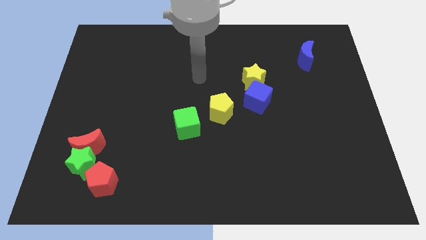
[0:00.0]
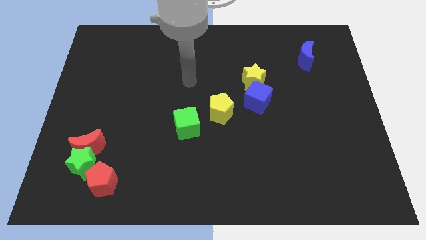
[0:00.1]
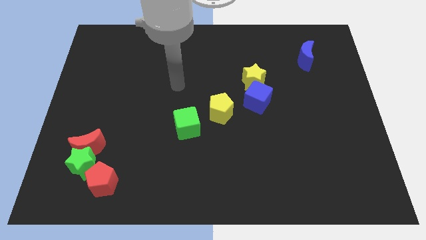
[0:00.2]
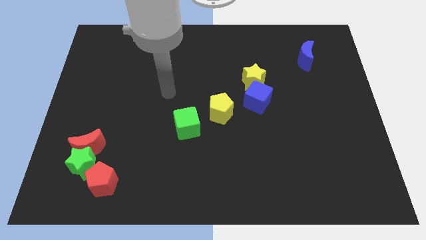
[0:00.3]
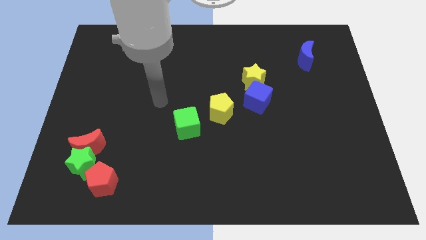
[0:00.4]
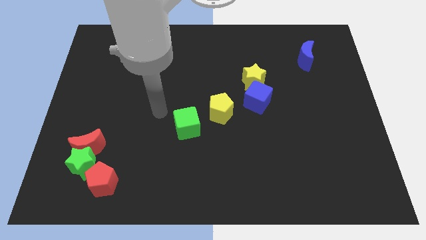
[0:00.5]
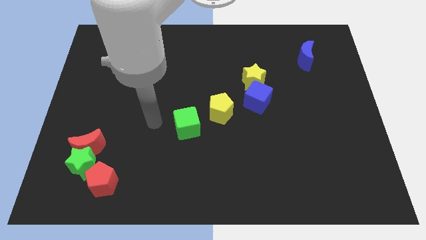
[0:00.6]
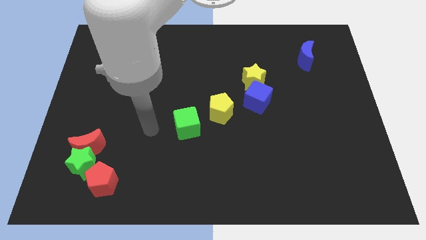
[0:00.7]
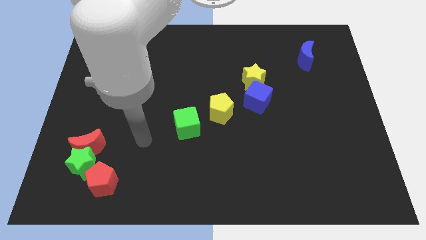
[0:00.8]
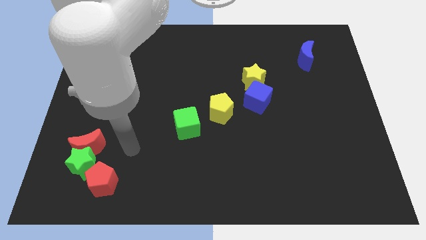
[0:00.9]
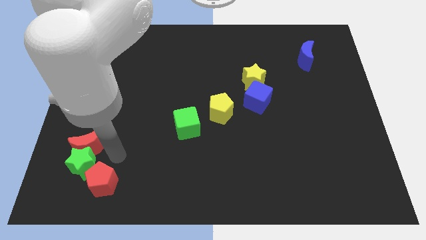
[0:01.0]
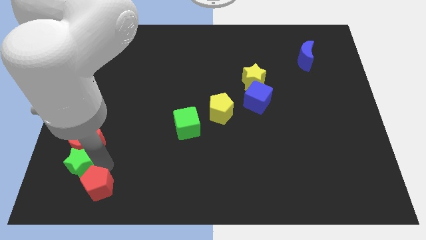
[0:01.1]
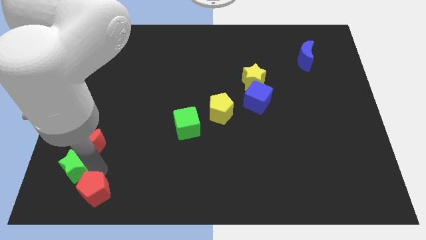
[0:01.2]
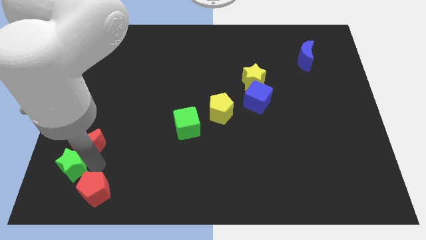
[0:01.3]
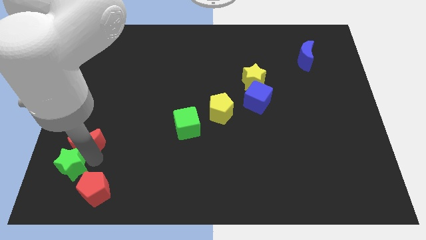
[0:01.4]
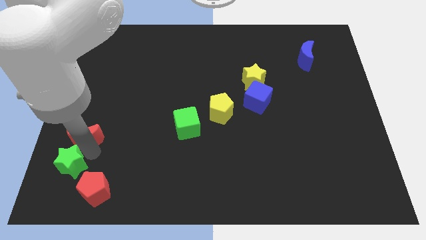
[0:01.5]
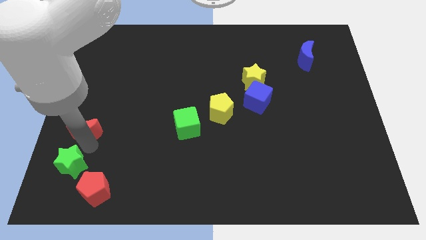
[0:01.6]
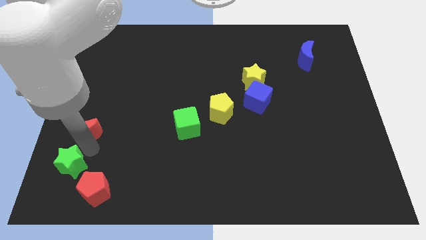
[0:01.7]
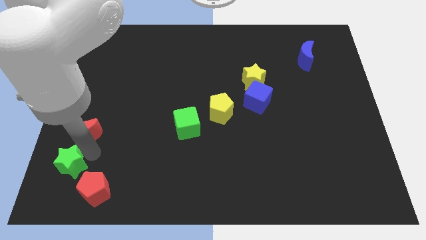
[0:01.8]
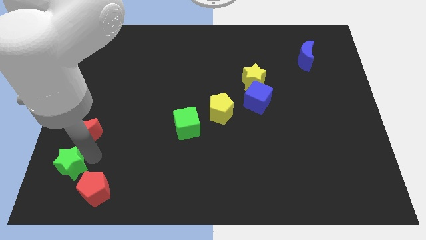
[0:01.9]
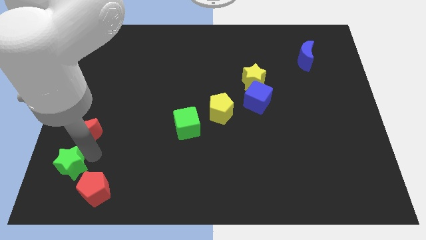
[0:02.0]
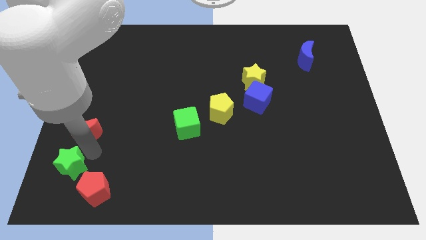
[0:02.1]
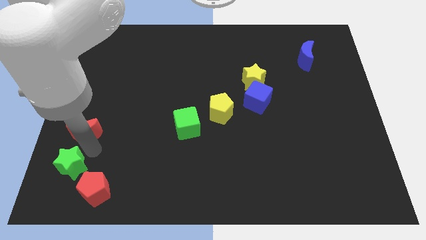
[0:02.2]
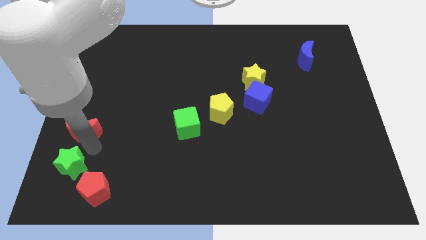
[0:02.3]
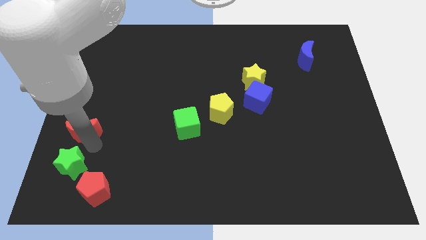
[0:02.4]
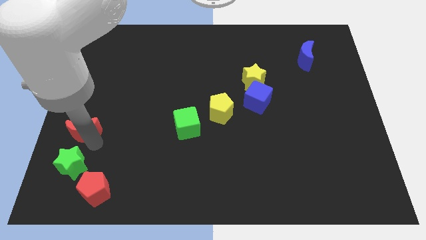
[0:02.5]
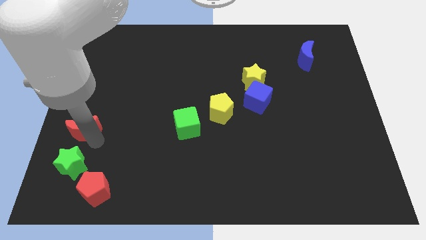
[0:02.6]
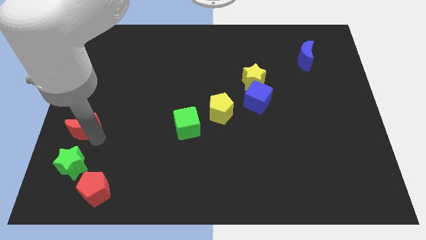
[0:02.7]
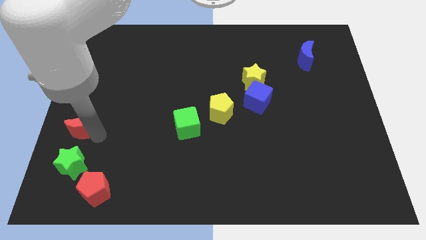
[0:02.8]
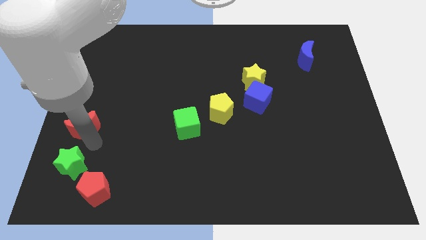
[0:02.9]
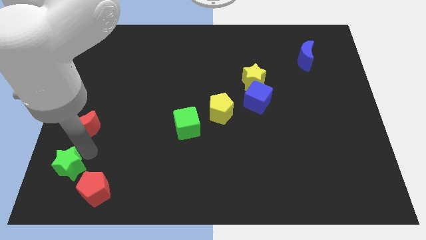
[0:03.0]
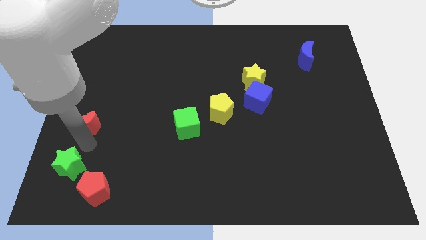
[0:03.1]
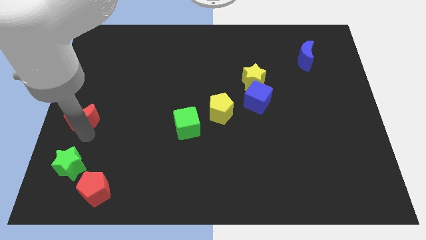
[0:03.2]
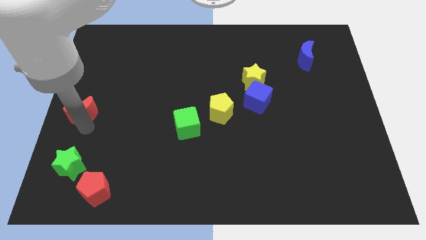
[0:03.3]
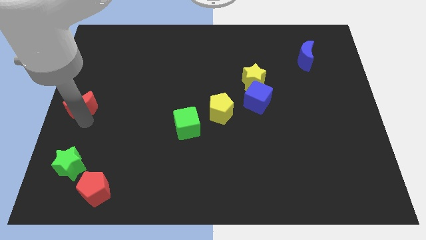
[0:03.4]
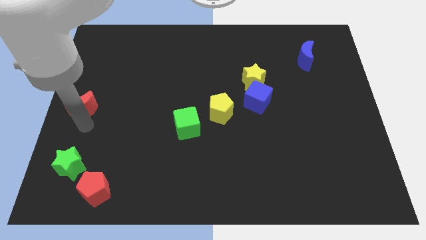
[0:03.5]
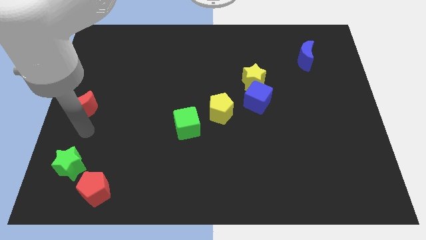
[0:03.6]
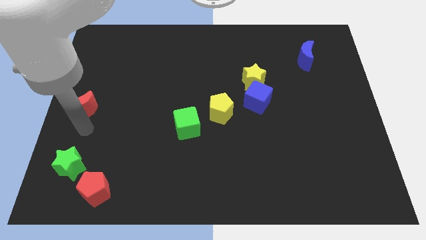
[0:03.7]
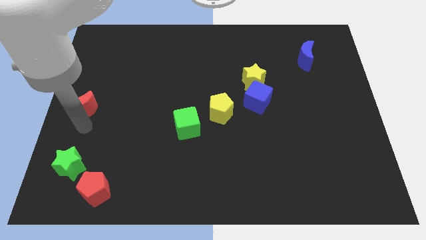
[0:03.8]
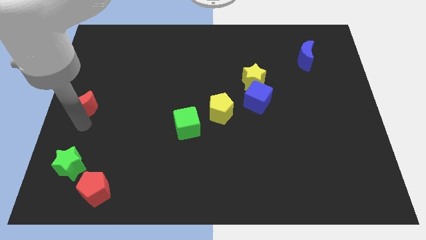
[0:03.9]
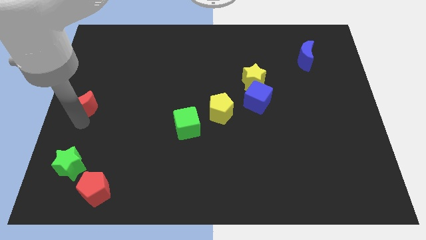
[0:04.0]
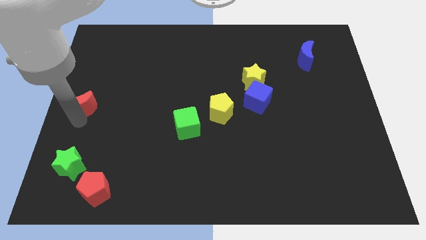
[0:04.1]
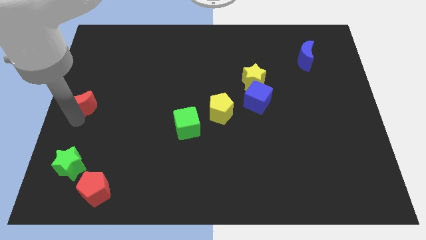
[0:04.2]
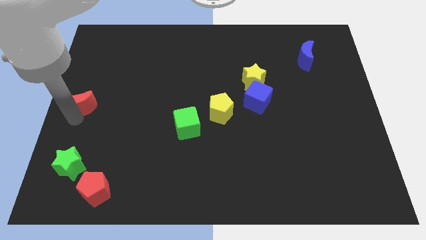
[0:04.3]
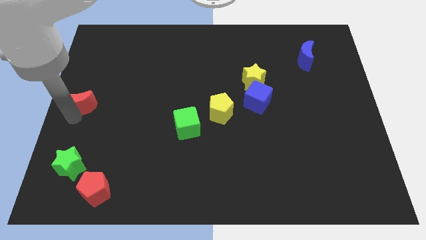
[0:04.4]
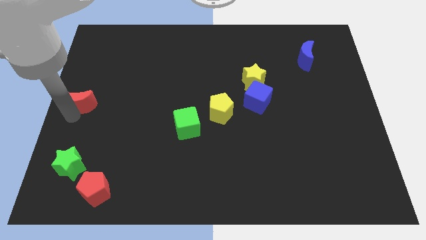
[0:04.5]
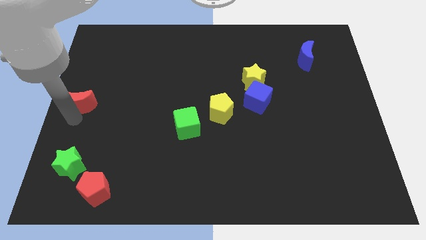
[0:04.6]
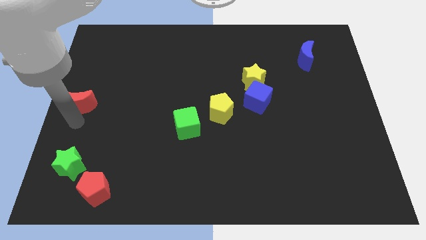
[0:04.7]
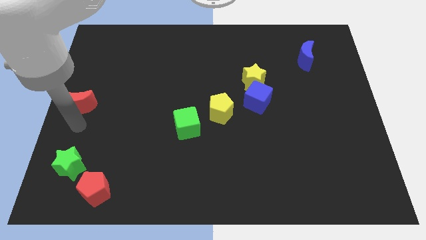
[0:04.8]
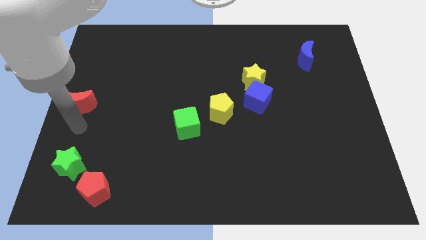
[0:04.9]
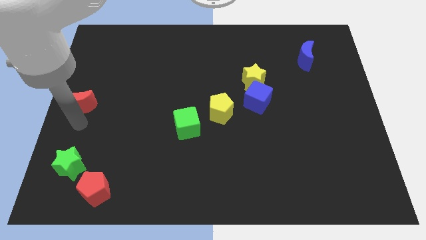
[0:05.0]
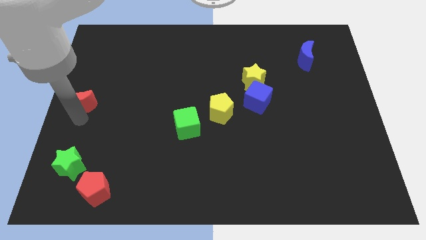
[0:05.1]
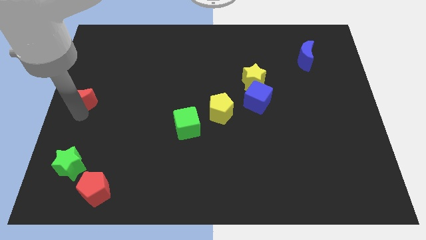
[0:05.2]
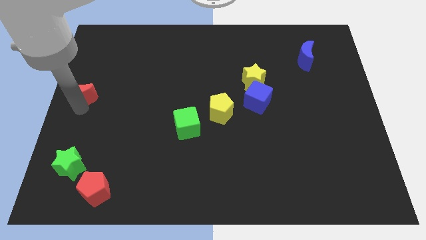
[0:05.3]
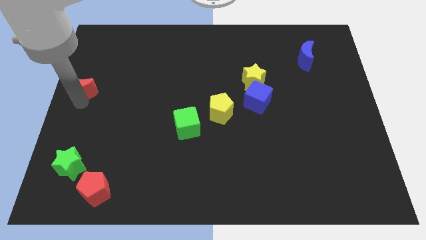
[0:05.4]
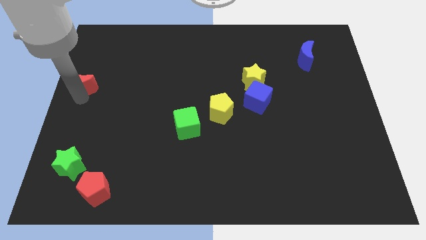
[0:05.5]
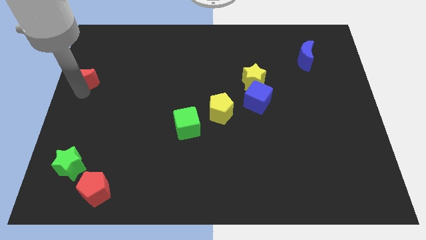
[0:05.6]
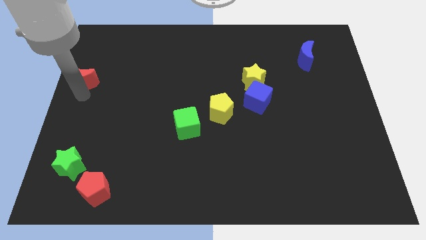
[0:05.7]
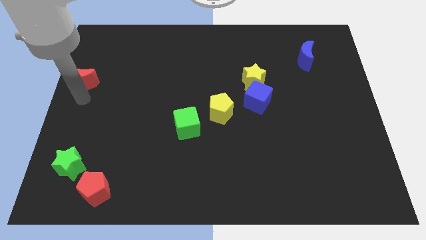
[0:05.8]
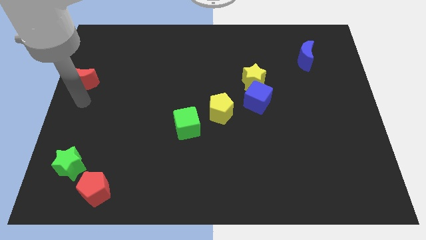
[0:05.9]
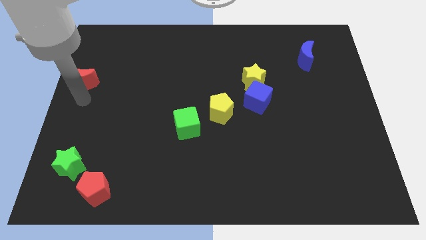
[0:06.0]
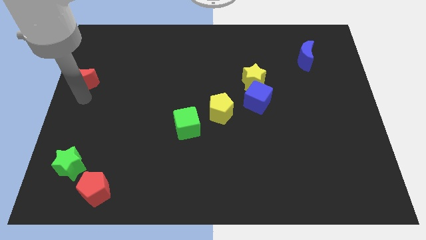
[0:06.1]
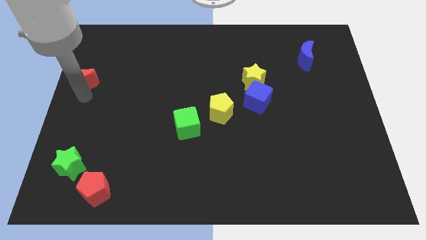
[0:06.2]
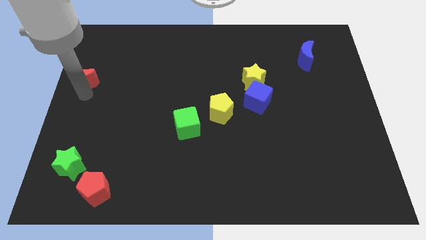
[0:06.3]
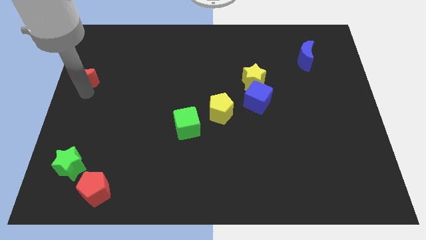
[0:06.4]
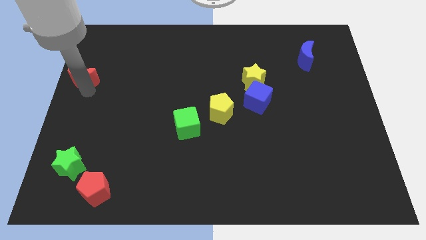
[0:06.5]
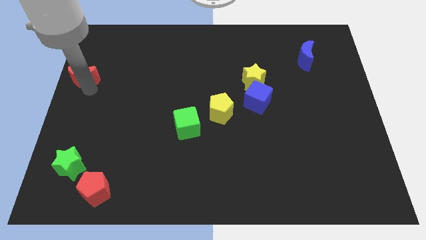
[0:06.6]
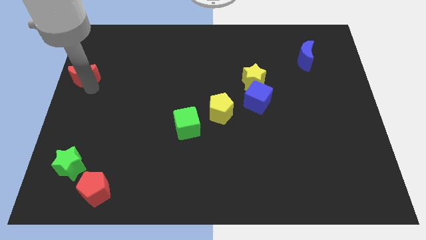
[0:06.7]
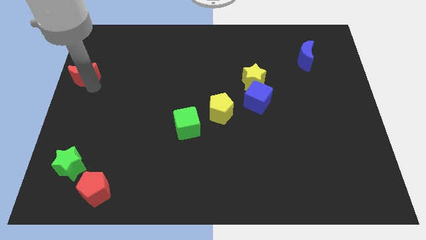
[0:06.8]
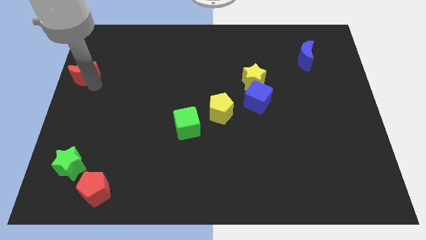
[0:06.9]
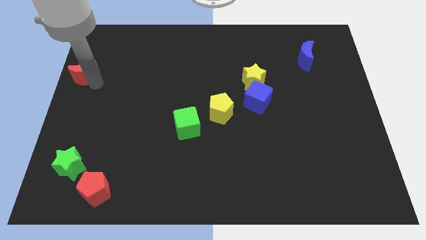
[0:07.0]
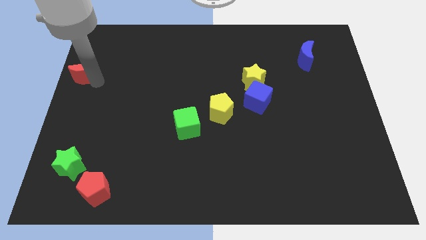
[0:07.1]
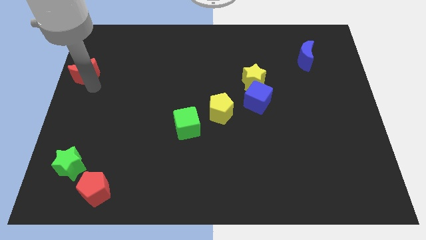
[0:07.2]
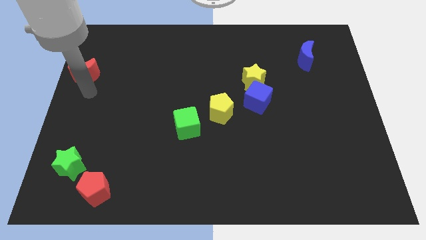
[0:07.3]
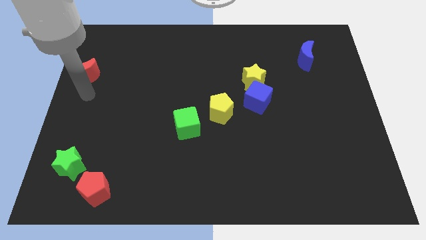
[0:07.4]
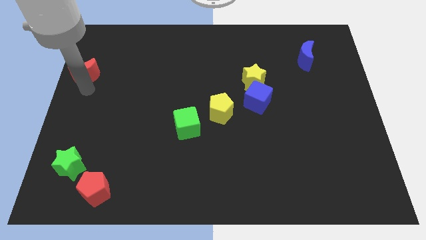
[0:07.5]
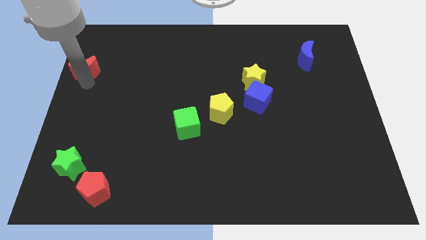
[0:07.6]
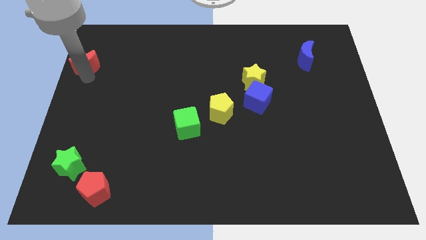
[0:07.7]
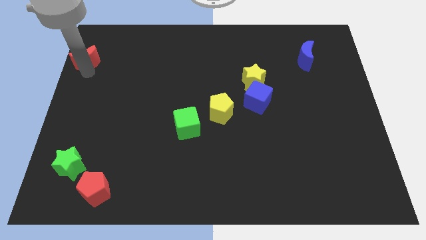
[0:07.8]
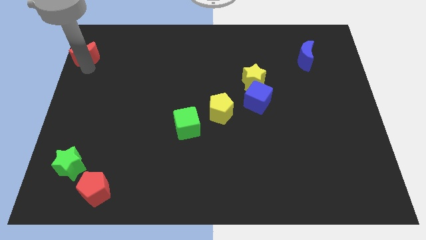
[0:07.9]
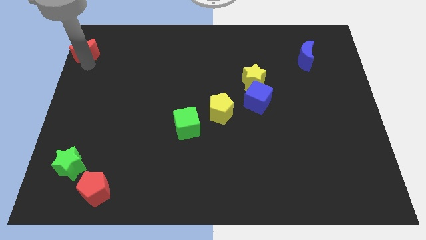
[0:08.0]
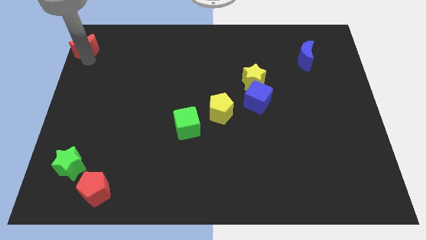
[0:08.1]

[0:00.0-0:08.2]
put the red moon to the top left
